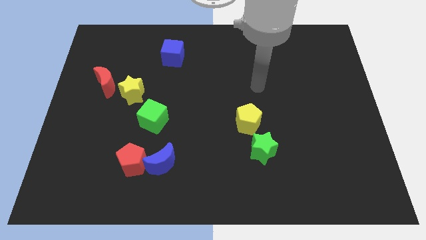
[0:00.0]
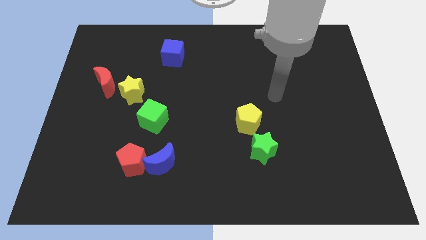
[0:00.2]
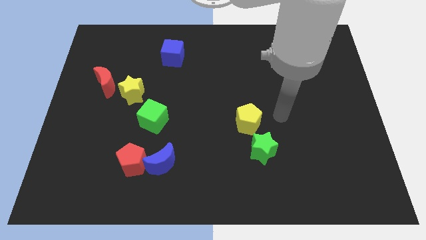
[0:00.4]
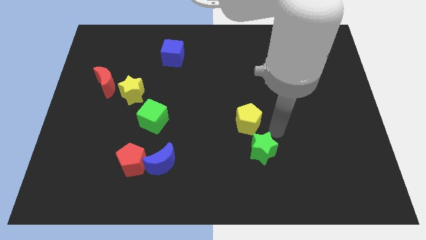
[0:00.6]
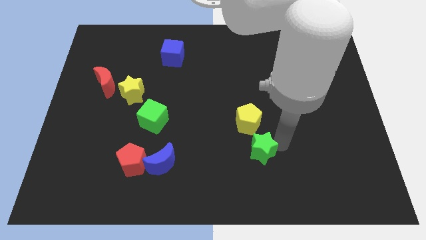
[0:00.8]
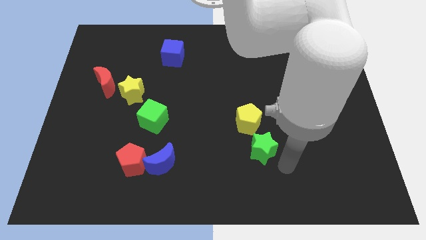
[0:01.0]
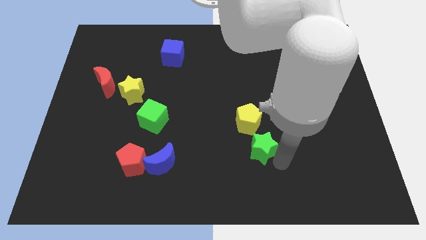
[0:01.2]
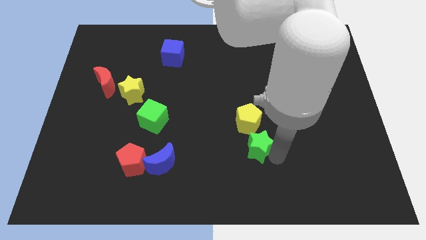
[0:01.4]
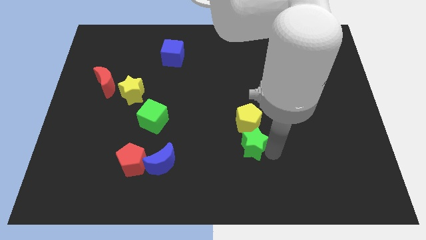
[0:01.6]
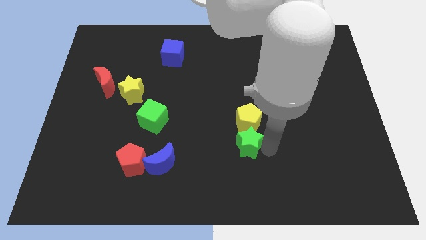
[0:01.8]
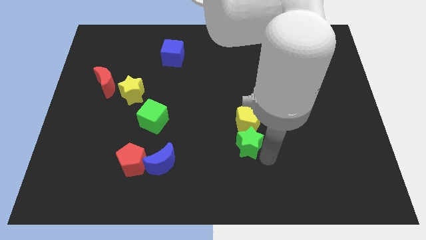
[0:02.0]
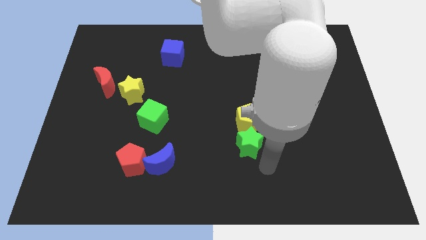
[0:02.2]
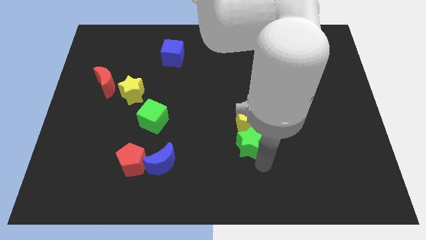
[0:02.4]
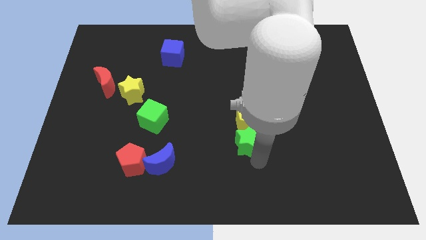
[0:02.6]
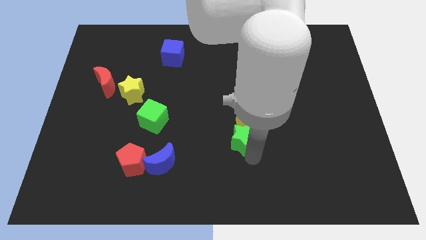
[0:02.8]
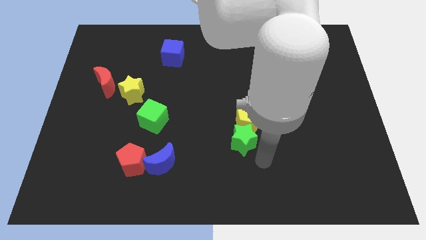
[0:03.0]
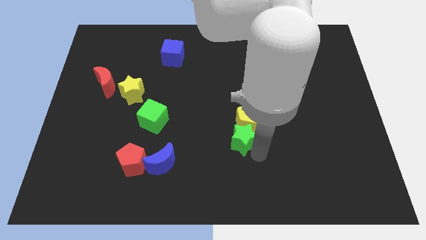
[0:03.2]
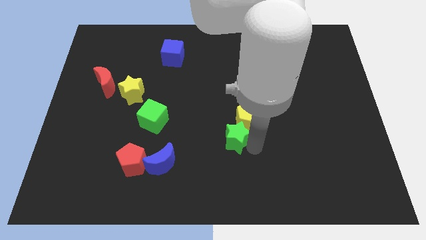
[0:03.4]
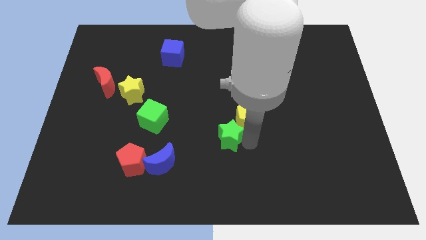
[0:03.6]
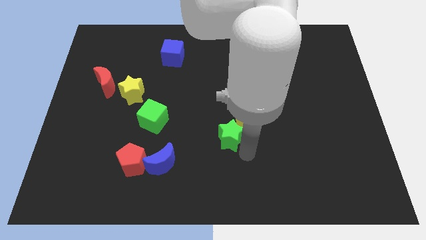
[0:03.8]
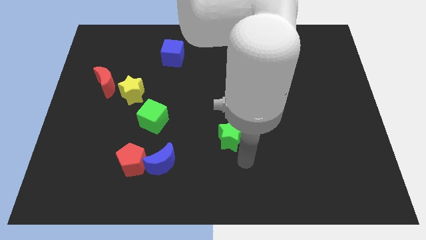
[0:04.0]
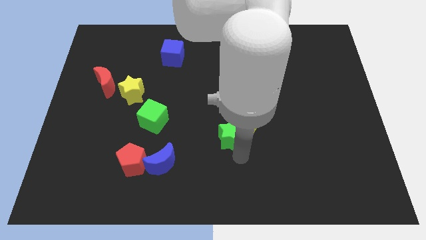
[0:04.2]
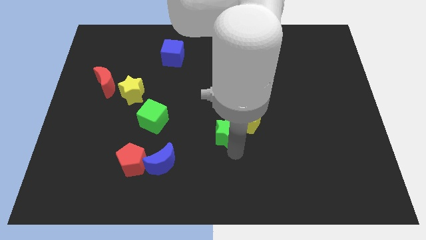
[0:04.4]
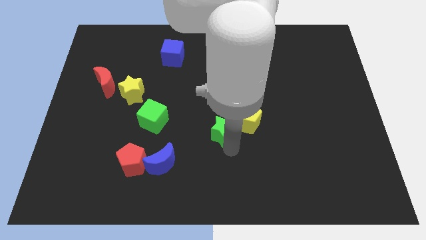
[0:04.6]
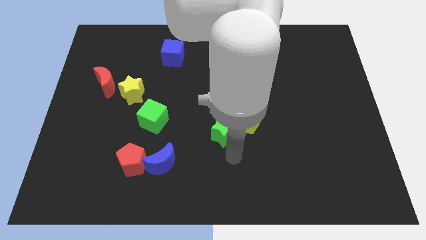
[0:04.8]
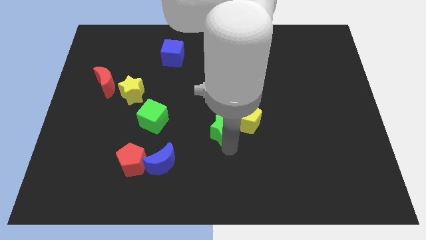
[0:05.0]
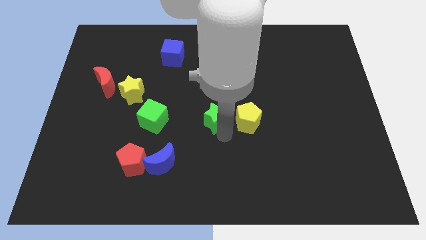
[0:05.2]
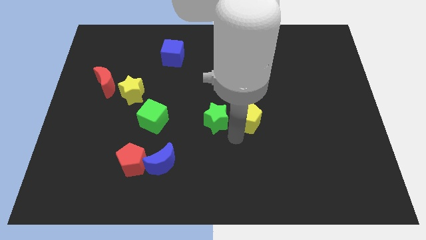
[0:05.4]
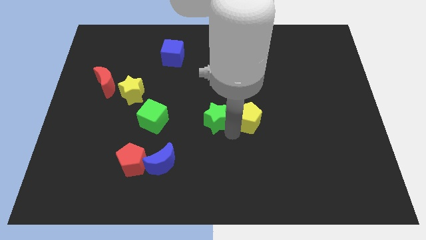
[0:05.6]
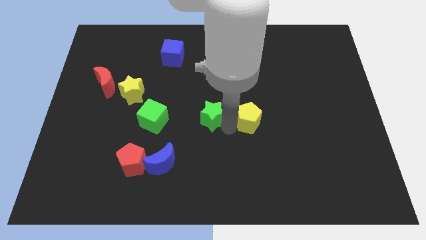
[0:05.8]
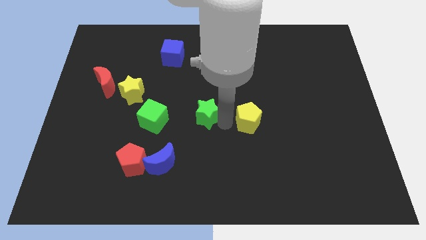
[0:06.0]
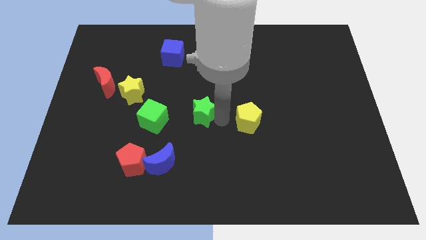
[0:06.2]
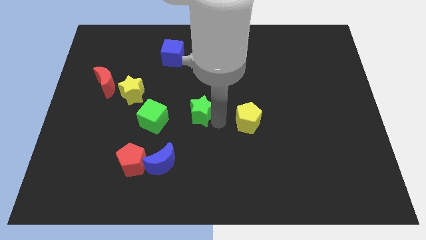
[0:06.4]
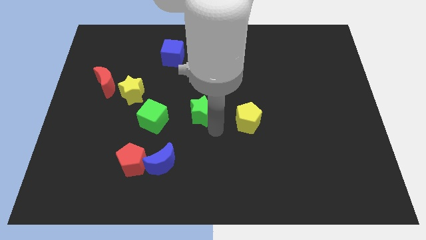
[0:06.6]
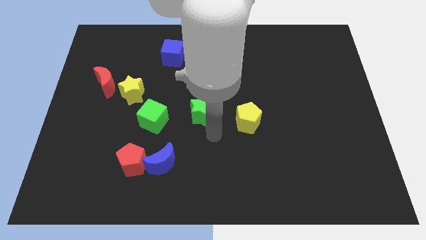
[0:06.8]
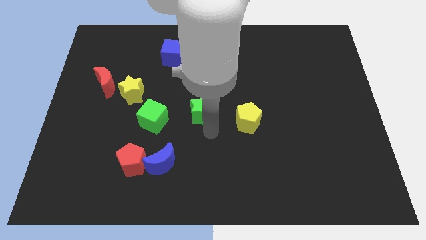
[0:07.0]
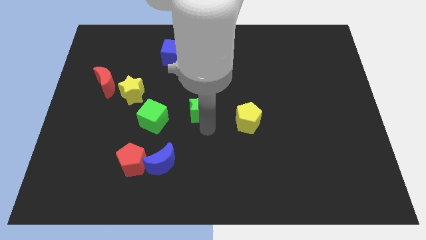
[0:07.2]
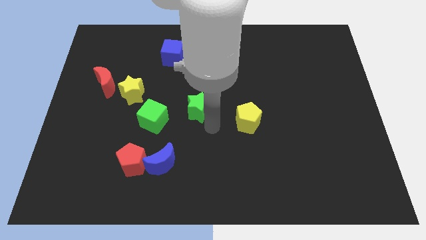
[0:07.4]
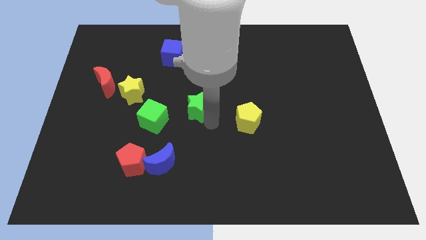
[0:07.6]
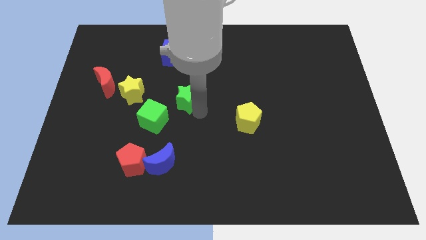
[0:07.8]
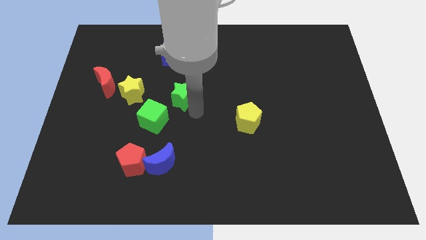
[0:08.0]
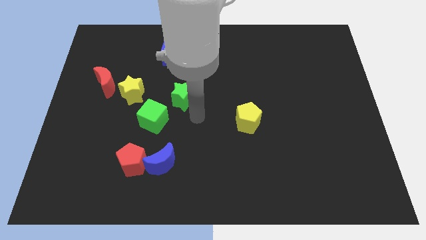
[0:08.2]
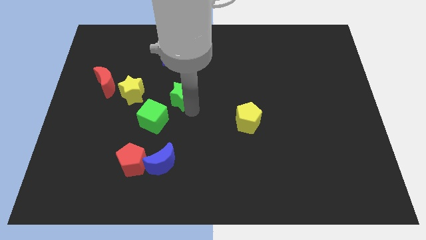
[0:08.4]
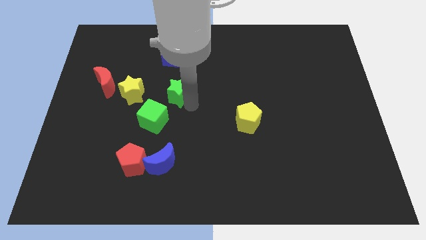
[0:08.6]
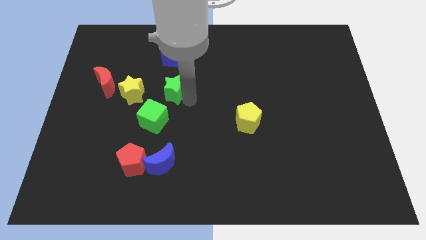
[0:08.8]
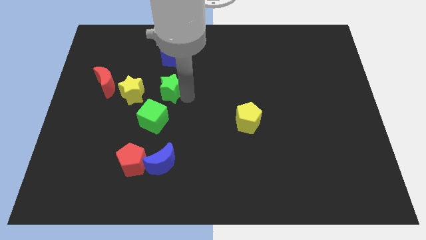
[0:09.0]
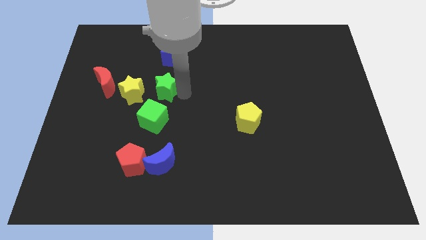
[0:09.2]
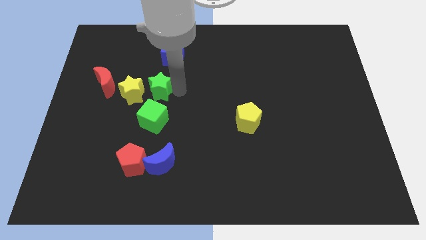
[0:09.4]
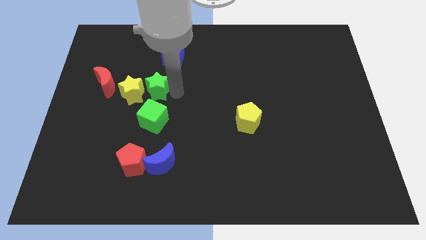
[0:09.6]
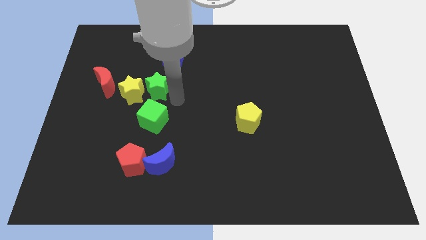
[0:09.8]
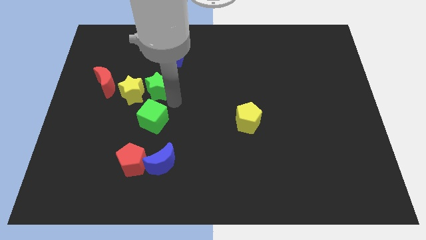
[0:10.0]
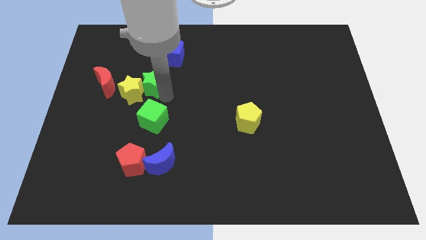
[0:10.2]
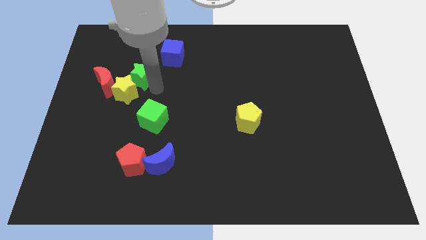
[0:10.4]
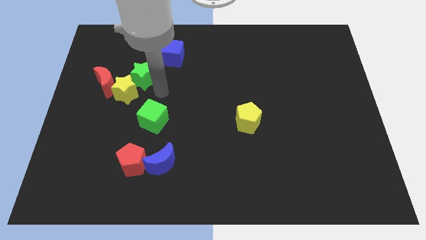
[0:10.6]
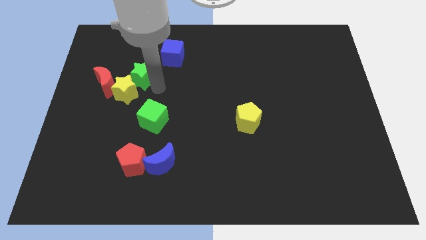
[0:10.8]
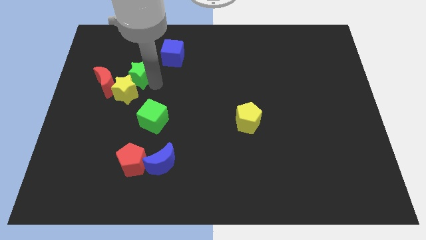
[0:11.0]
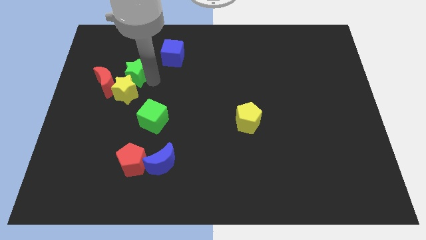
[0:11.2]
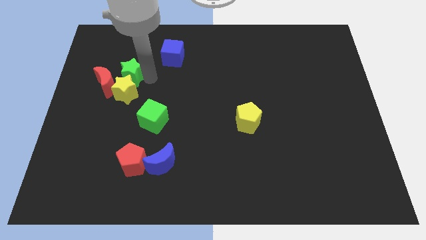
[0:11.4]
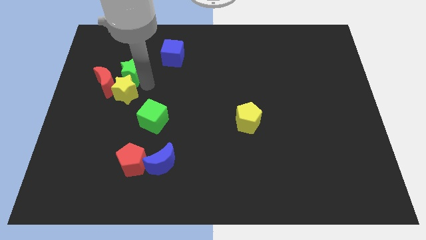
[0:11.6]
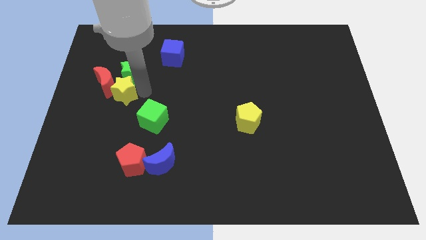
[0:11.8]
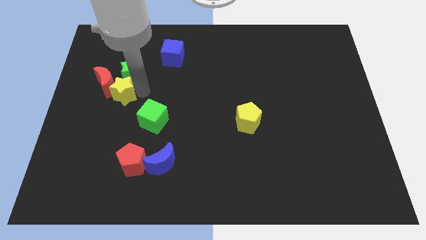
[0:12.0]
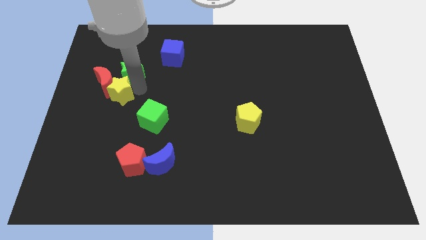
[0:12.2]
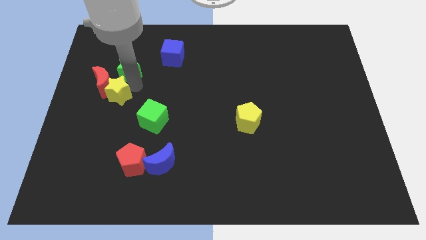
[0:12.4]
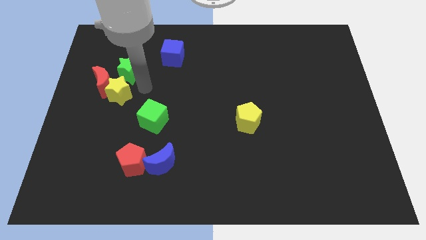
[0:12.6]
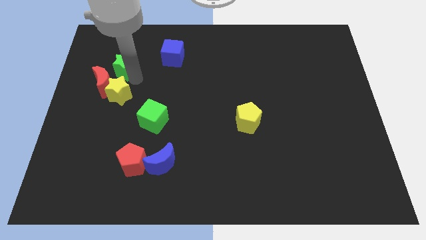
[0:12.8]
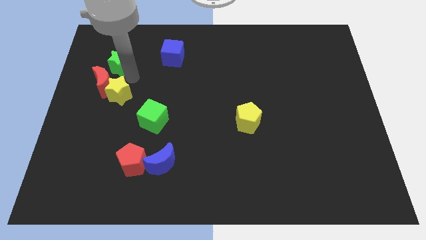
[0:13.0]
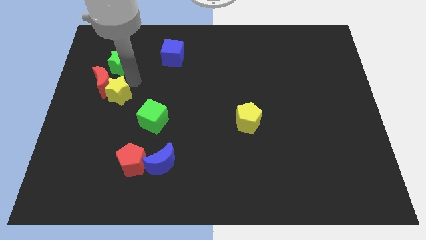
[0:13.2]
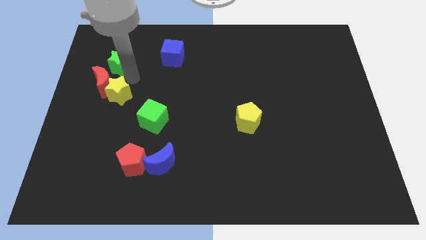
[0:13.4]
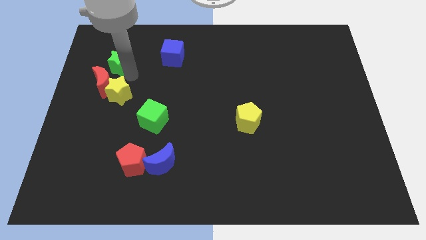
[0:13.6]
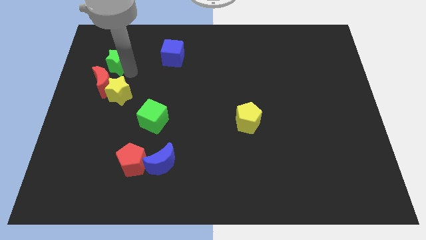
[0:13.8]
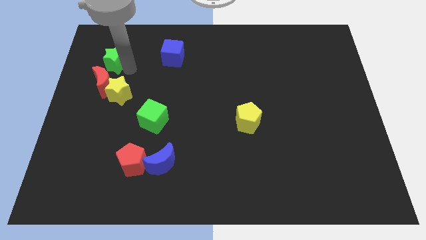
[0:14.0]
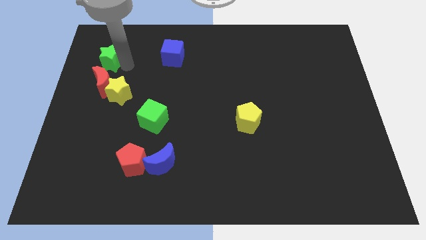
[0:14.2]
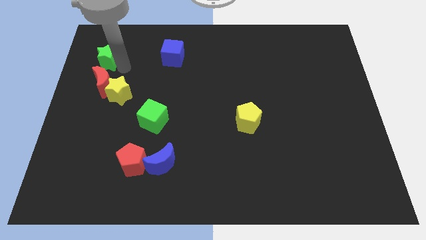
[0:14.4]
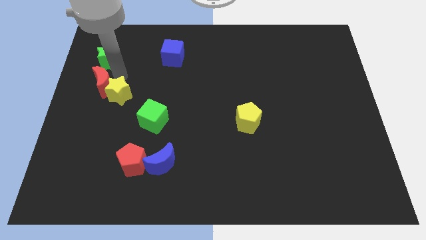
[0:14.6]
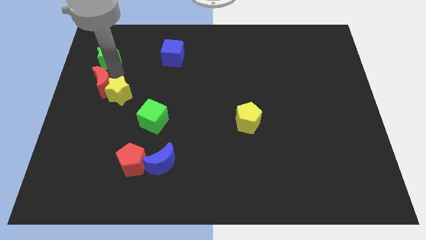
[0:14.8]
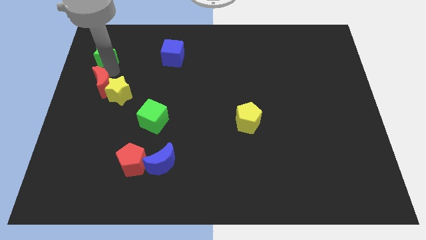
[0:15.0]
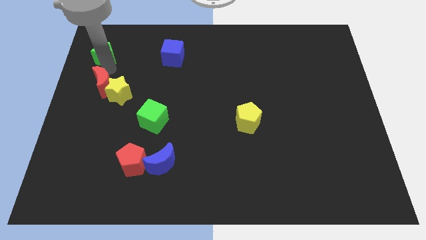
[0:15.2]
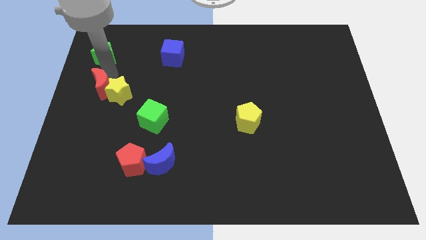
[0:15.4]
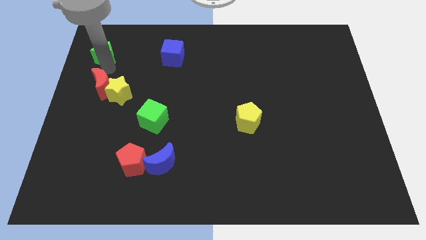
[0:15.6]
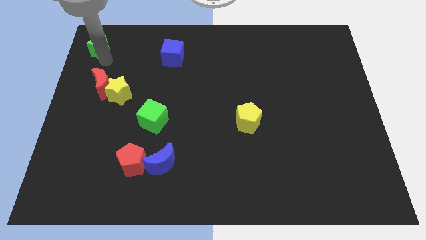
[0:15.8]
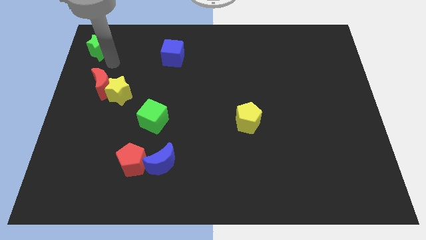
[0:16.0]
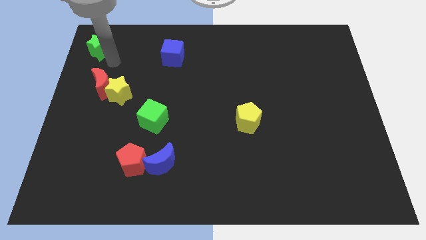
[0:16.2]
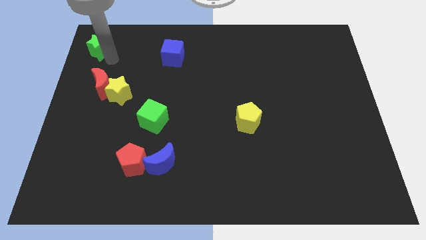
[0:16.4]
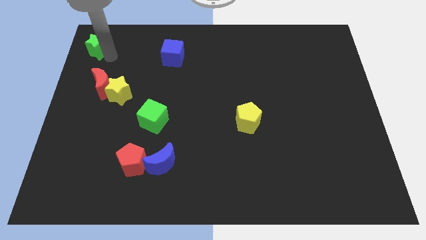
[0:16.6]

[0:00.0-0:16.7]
put the green star to the top left of the board
